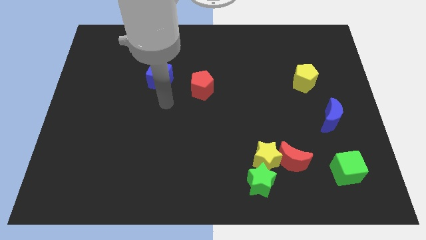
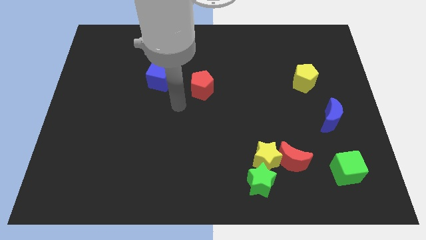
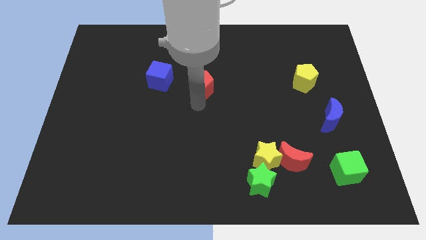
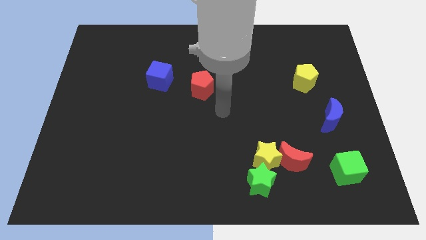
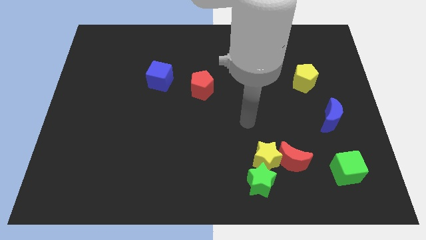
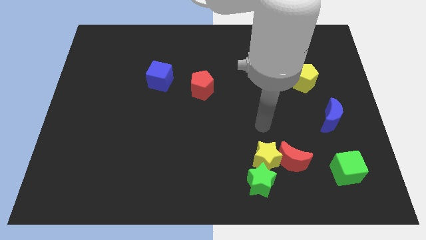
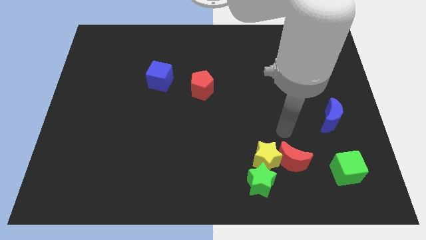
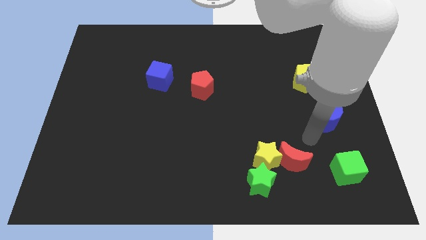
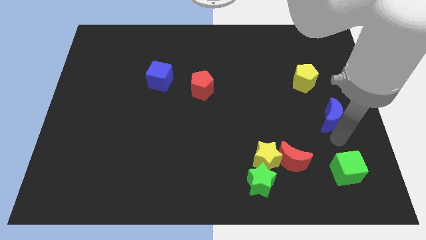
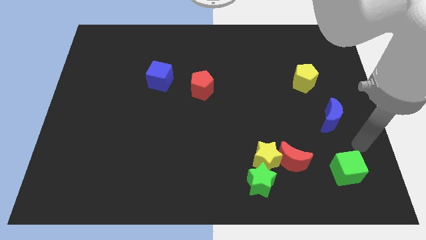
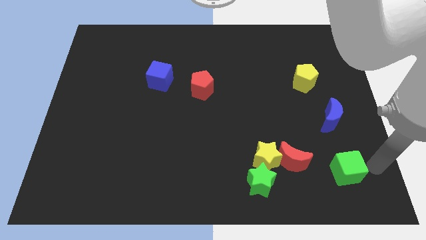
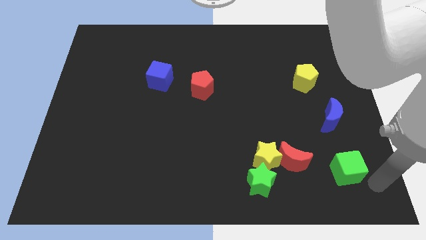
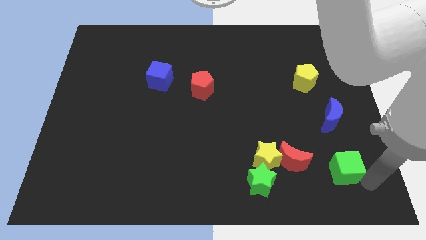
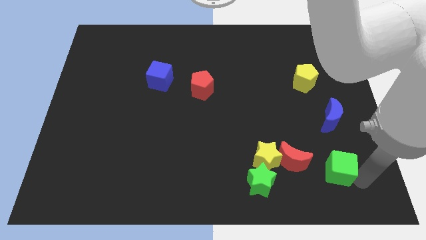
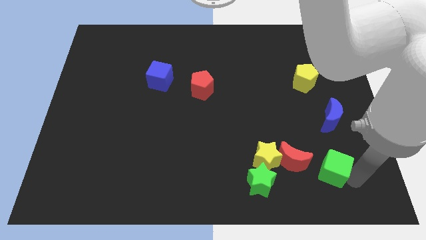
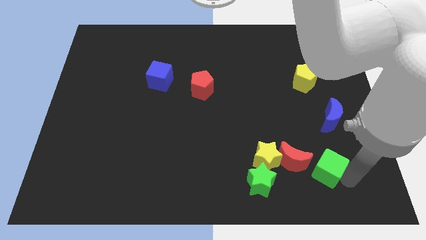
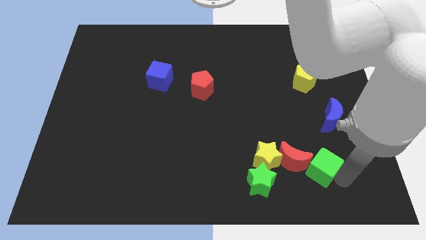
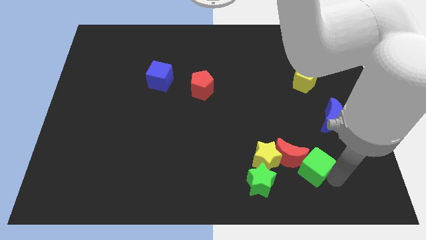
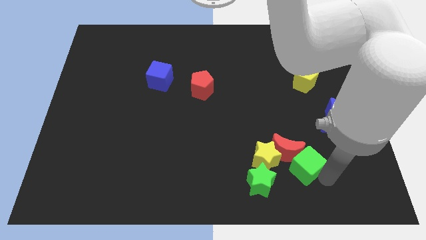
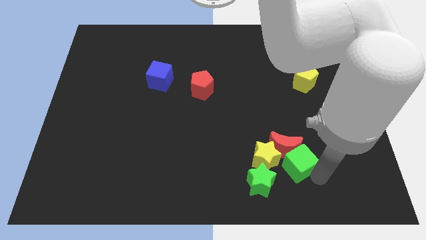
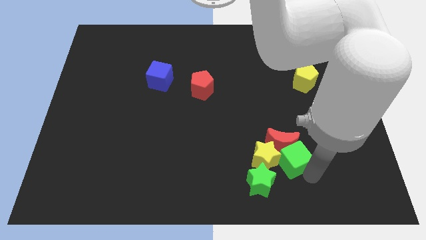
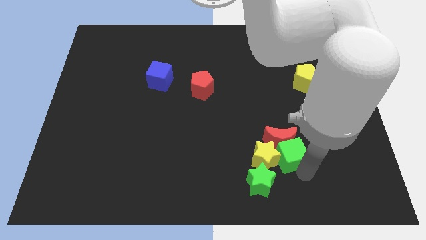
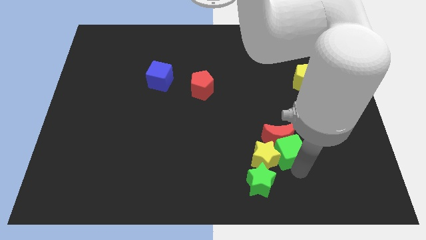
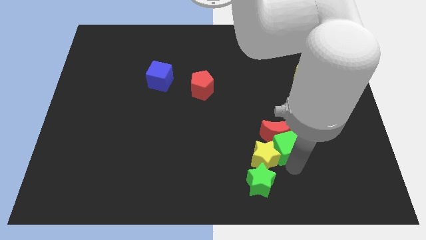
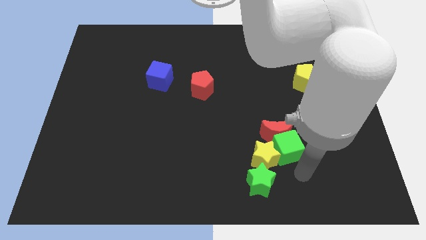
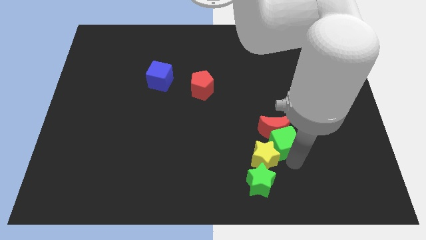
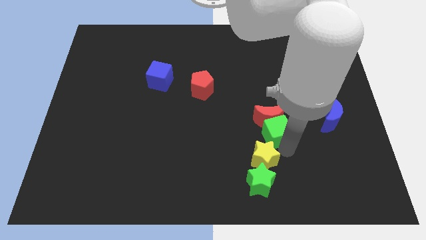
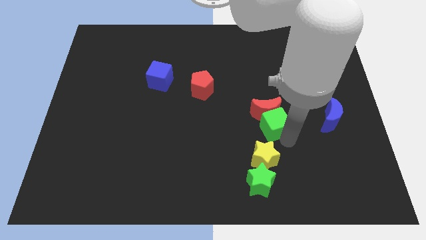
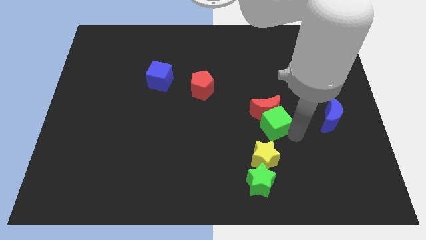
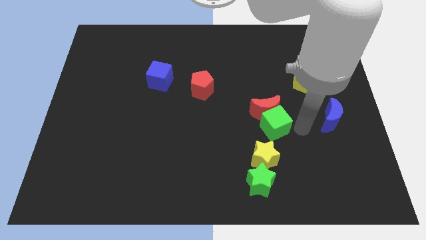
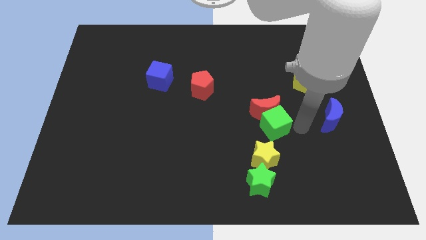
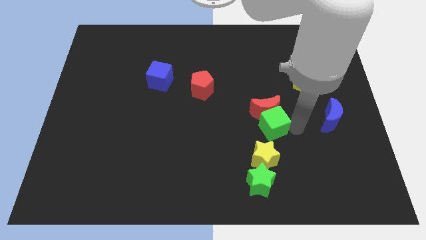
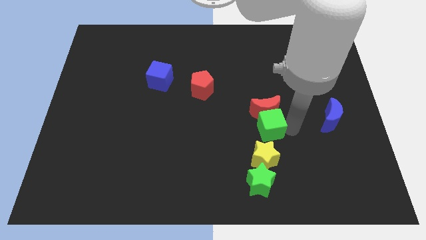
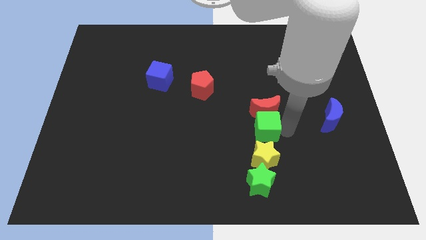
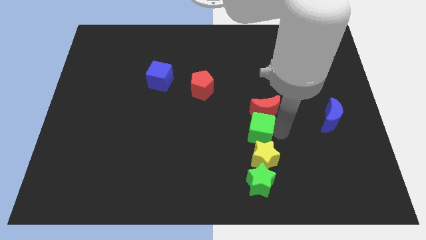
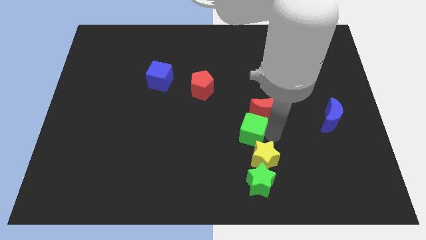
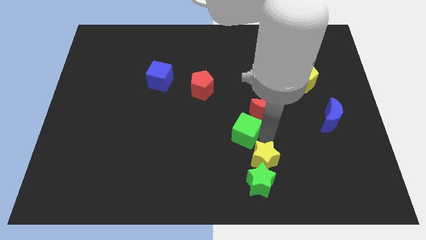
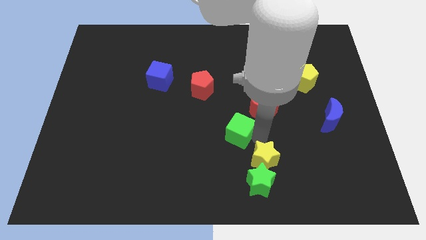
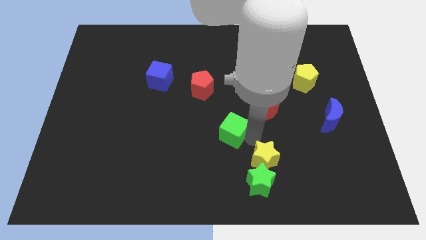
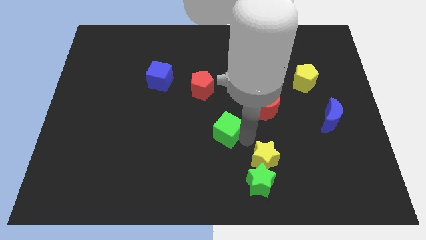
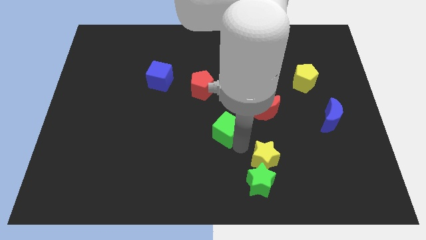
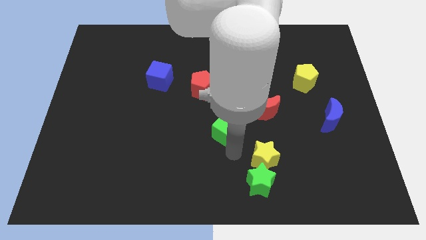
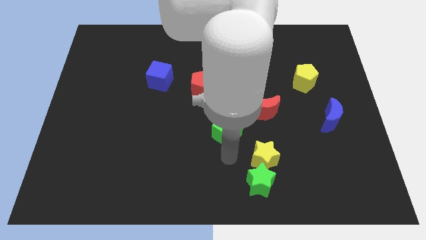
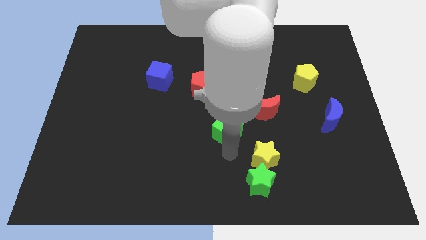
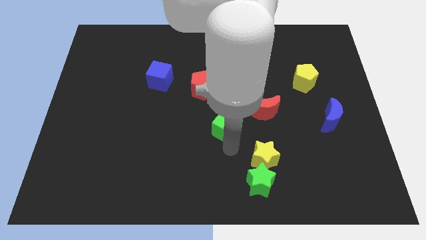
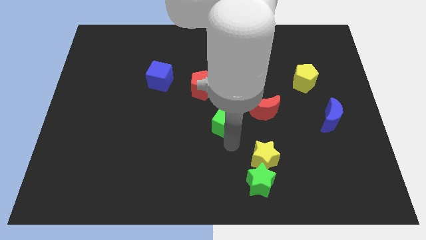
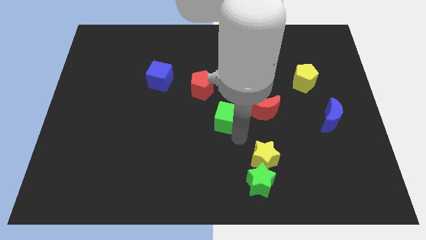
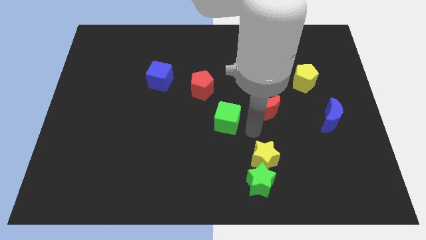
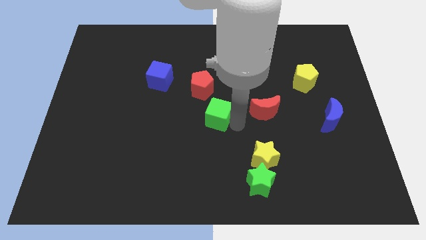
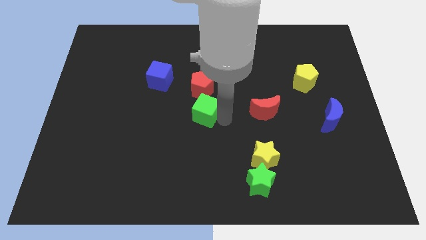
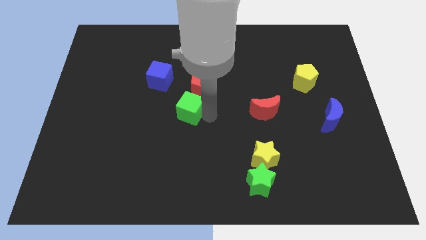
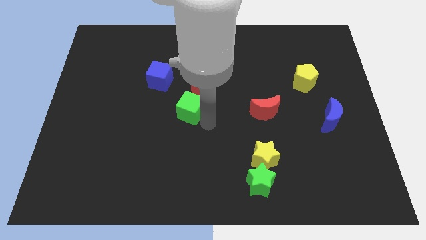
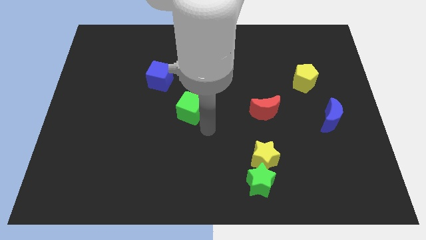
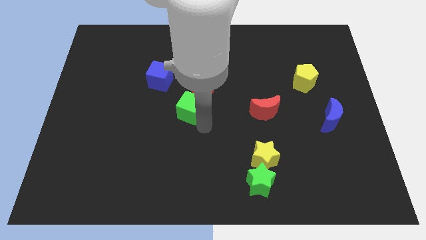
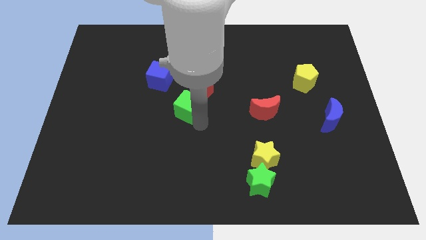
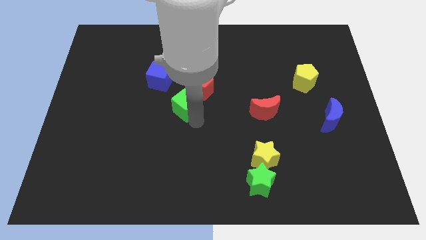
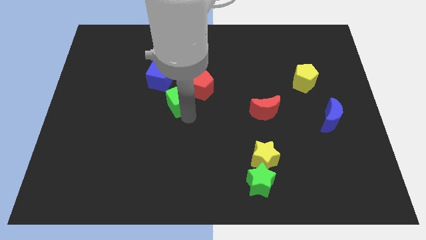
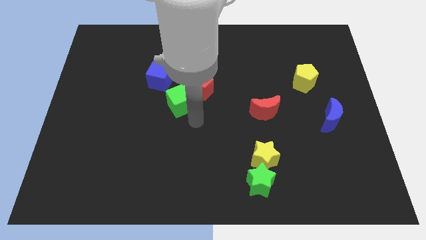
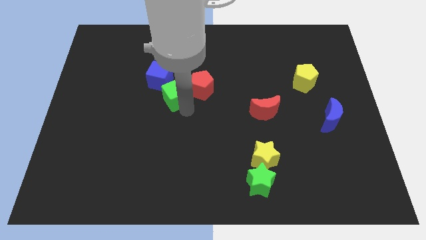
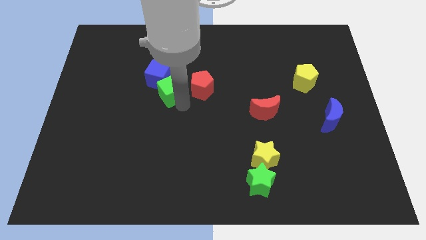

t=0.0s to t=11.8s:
slide the green cube close to the blue cube

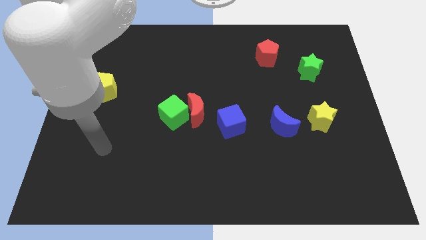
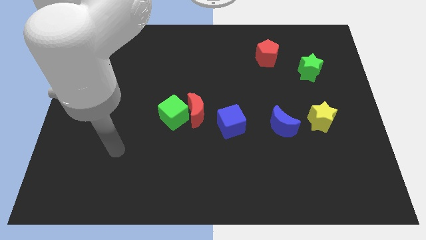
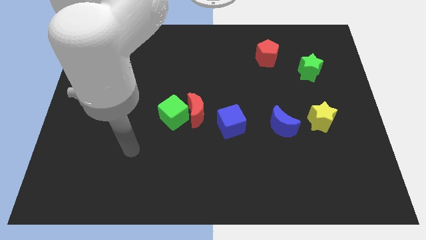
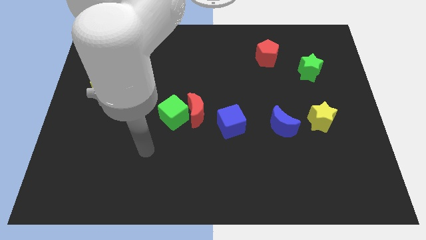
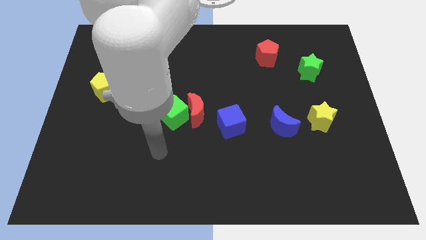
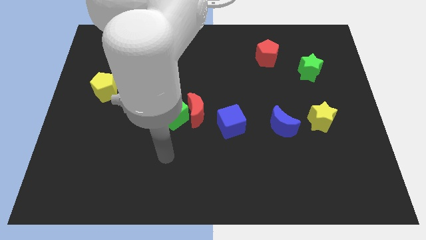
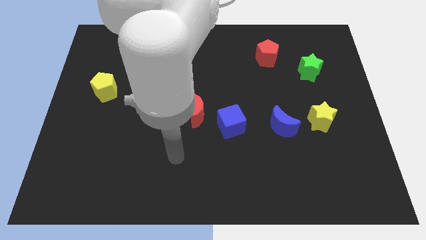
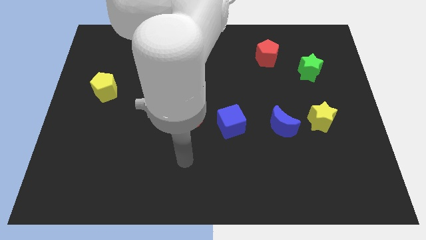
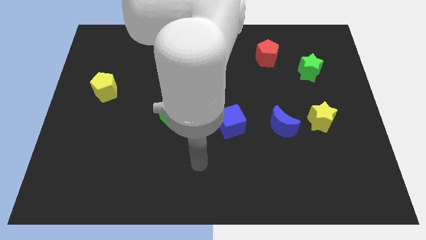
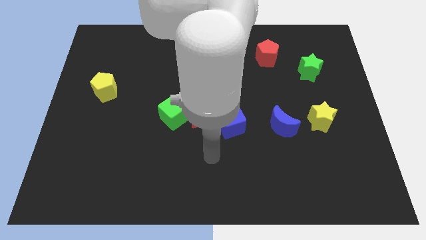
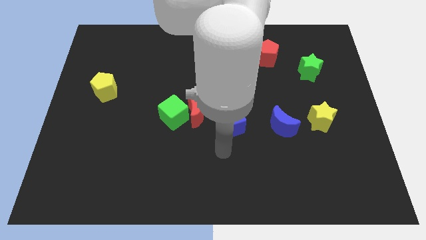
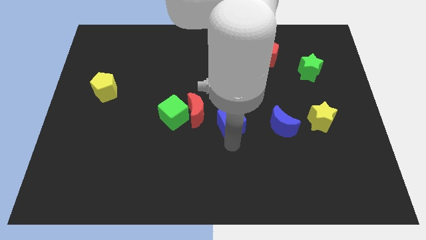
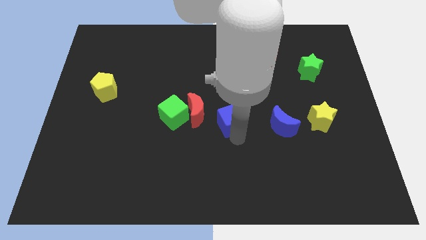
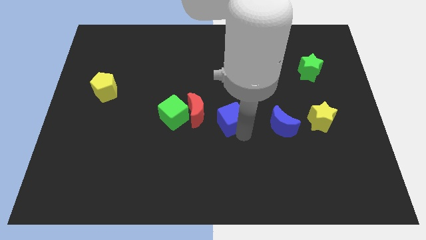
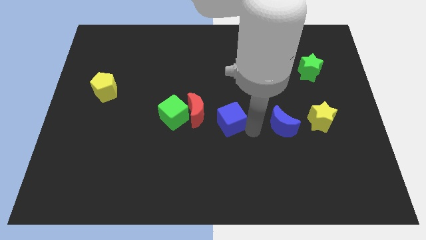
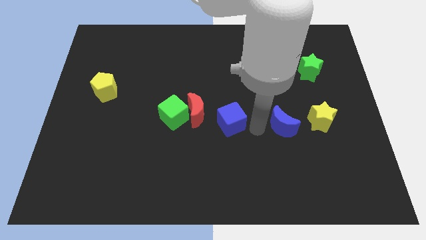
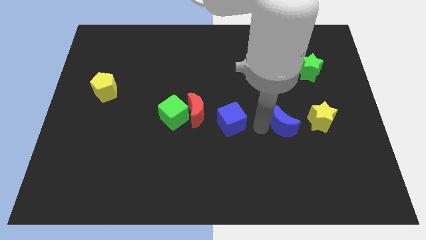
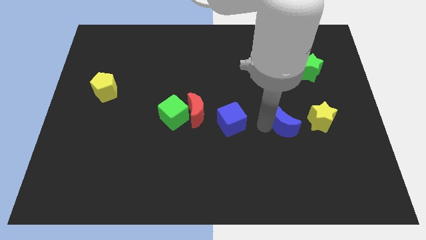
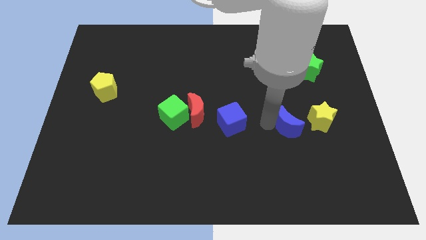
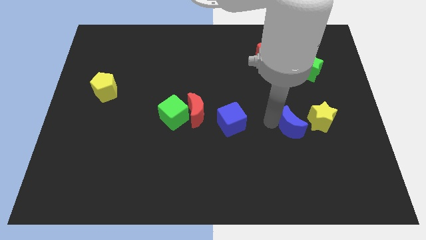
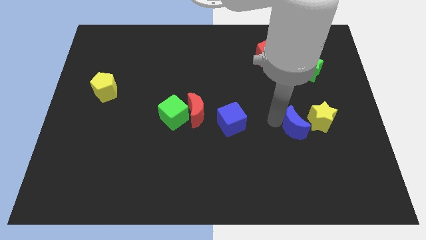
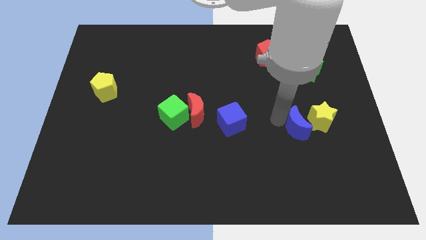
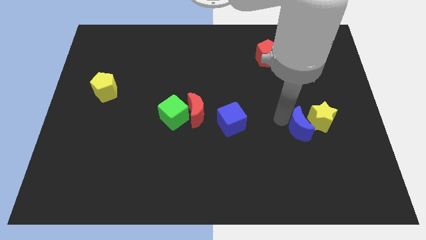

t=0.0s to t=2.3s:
push the blue moon next to the yellow star
